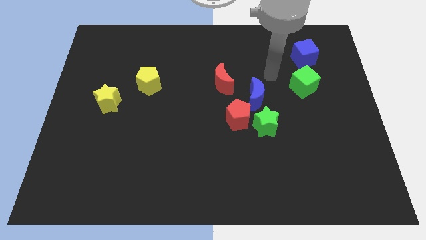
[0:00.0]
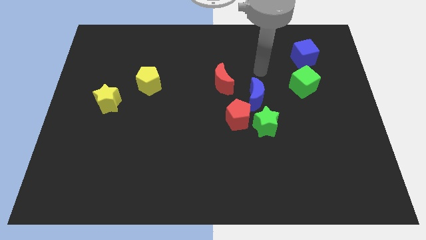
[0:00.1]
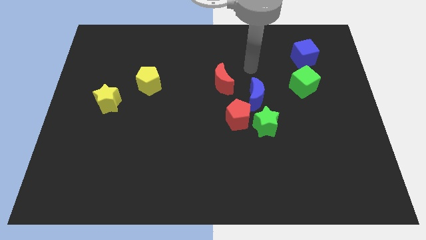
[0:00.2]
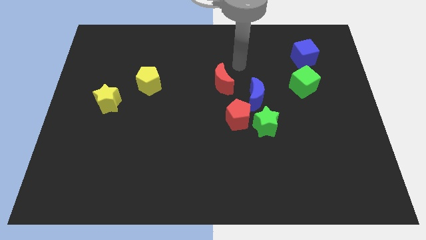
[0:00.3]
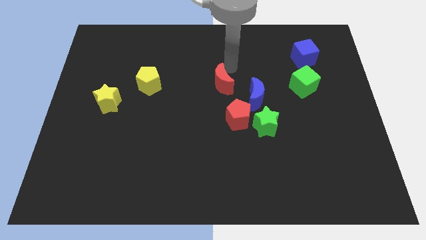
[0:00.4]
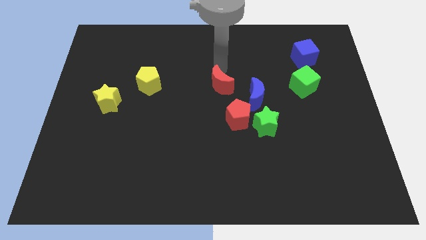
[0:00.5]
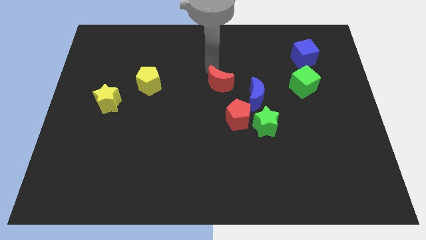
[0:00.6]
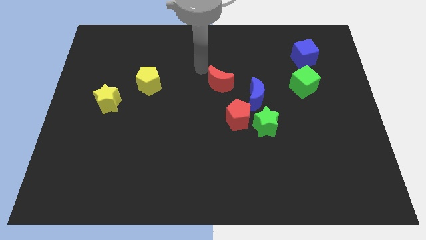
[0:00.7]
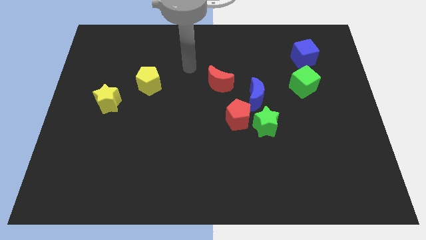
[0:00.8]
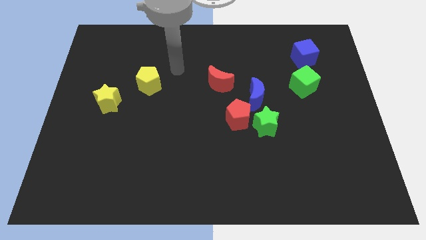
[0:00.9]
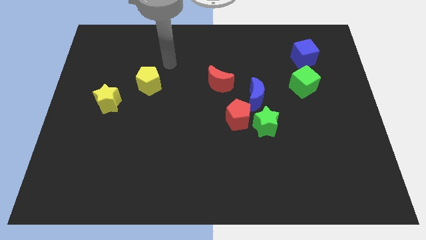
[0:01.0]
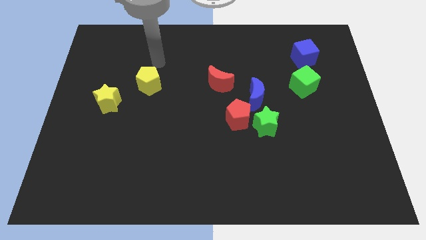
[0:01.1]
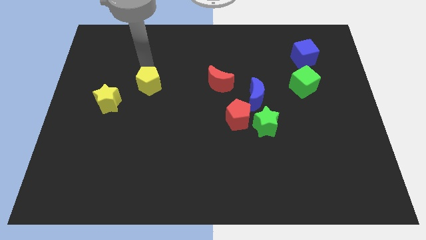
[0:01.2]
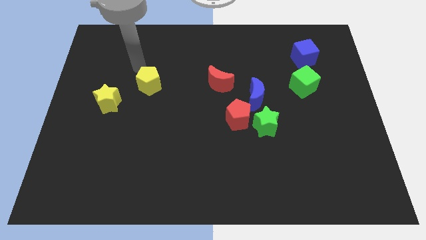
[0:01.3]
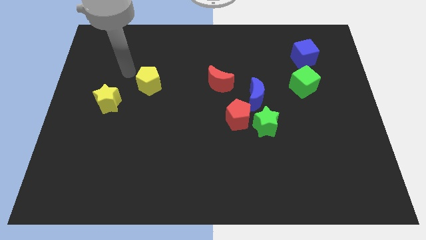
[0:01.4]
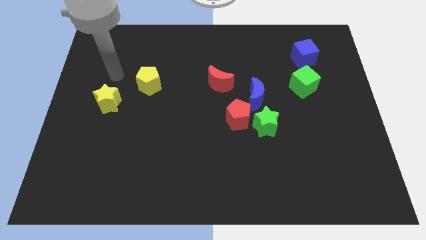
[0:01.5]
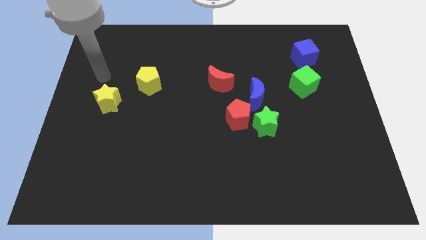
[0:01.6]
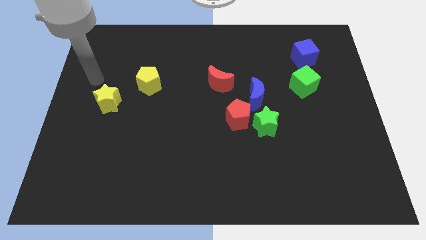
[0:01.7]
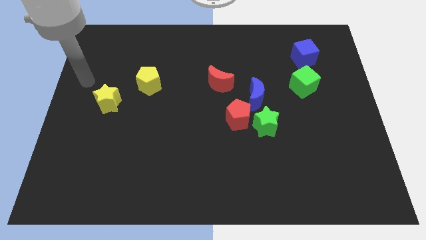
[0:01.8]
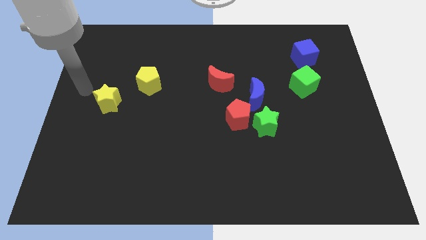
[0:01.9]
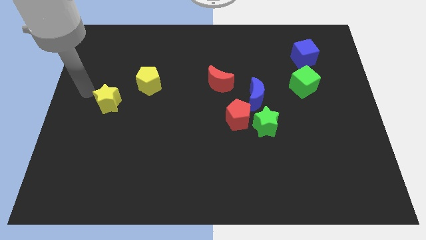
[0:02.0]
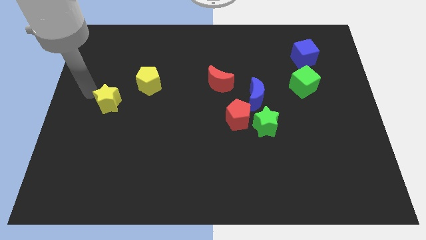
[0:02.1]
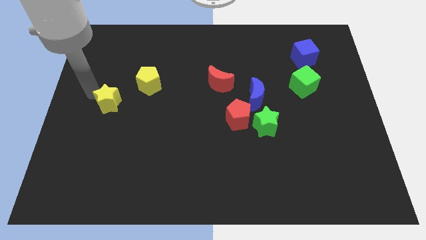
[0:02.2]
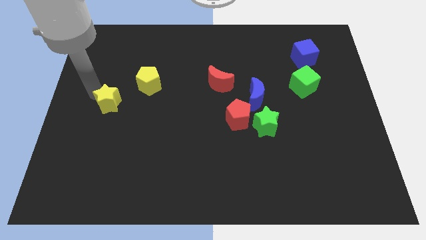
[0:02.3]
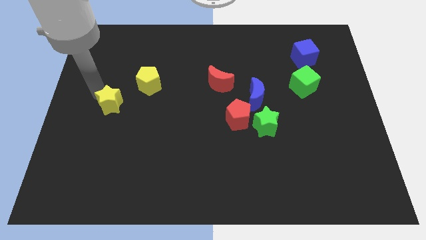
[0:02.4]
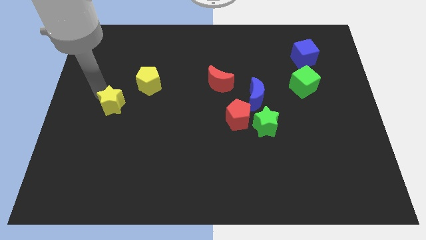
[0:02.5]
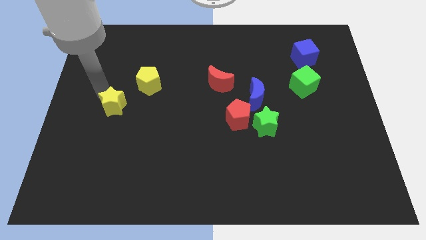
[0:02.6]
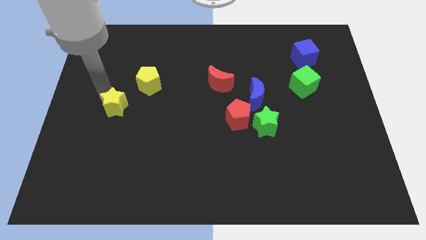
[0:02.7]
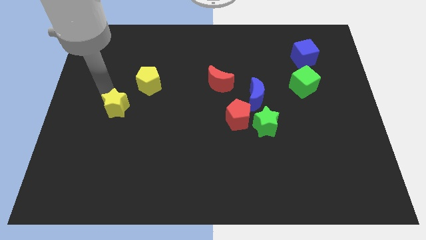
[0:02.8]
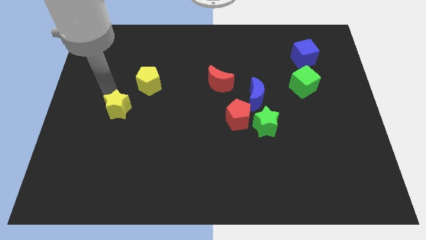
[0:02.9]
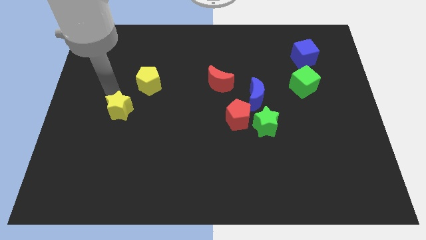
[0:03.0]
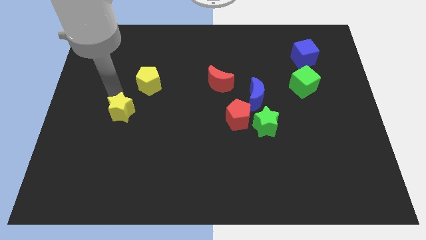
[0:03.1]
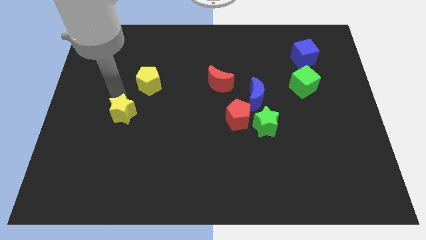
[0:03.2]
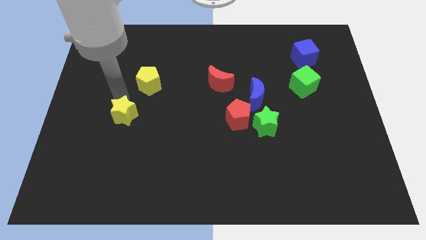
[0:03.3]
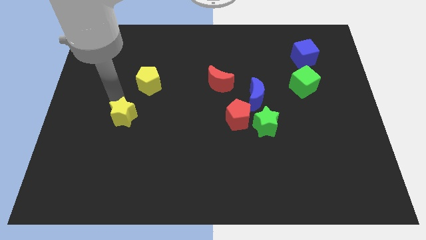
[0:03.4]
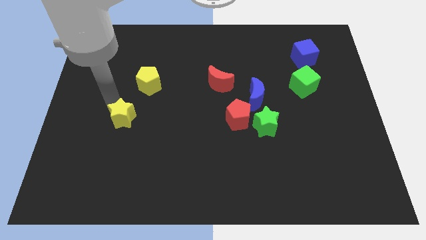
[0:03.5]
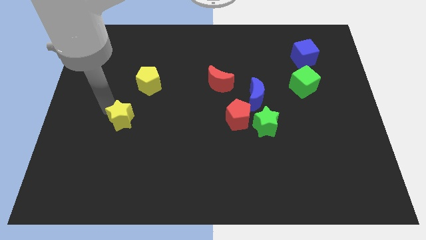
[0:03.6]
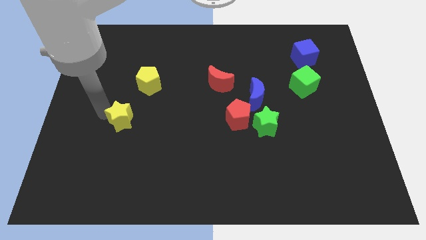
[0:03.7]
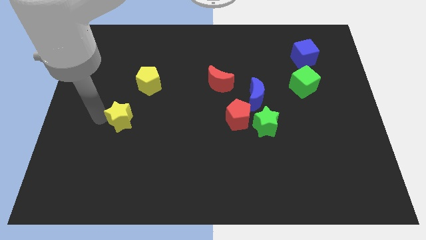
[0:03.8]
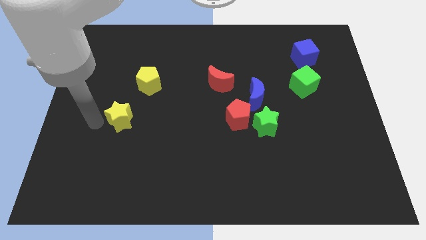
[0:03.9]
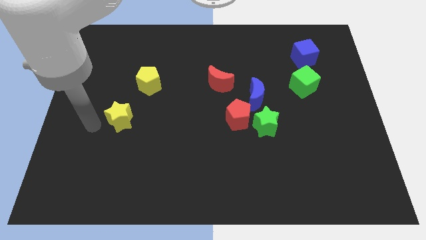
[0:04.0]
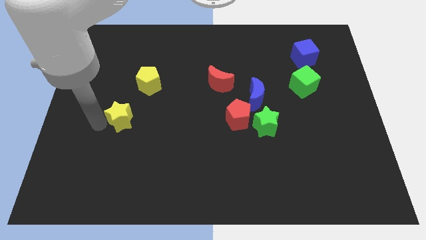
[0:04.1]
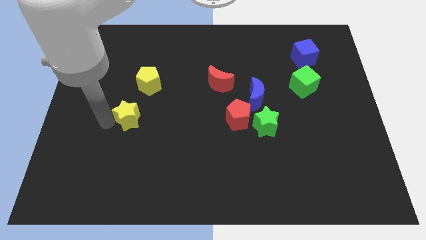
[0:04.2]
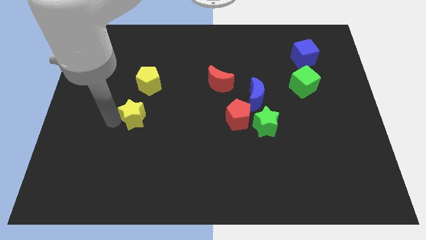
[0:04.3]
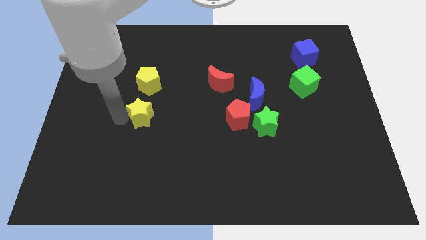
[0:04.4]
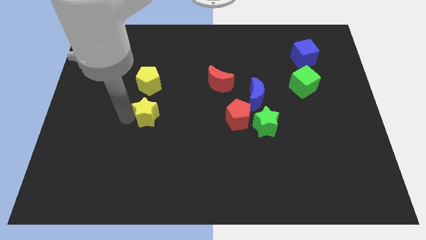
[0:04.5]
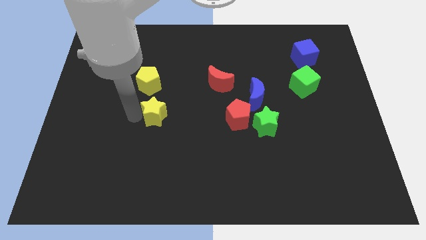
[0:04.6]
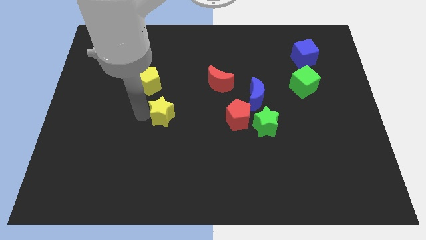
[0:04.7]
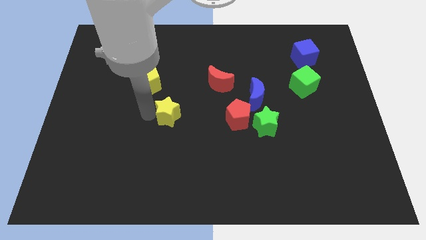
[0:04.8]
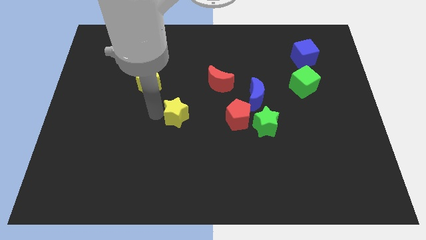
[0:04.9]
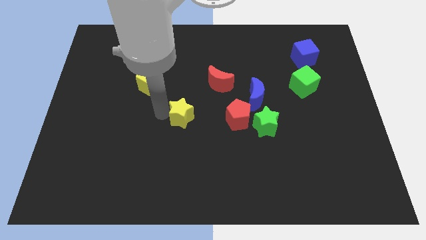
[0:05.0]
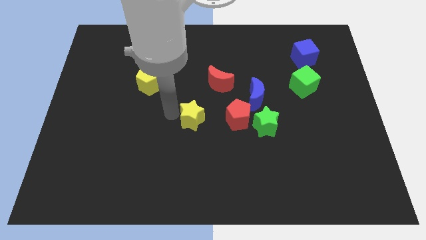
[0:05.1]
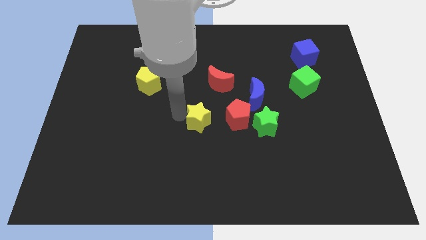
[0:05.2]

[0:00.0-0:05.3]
push the yellow star left of the green star
